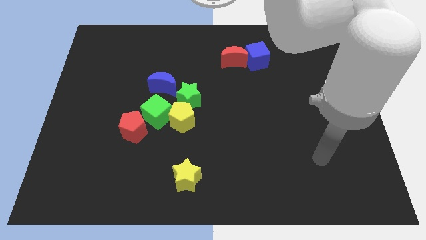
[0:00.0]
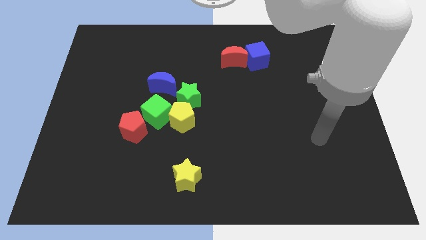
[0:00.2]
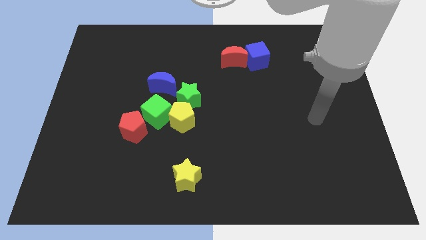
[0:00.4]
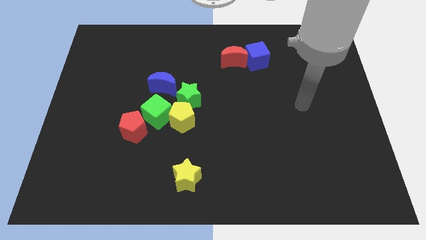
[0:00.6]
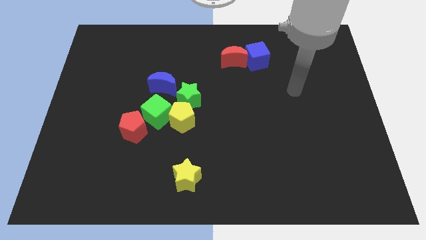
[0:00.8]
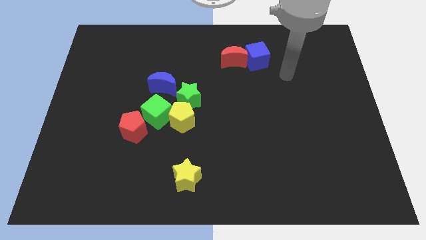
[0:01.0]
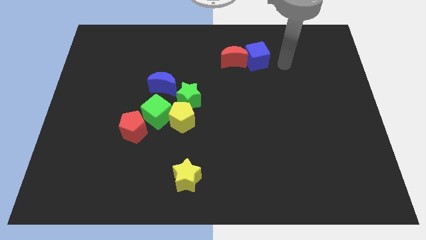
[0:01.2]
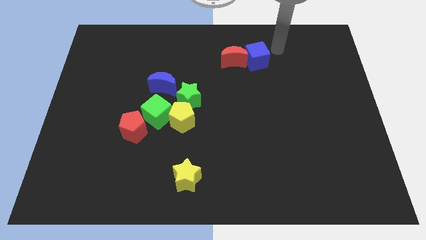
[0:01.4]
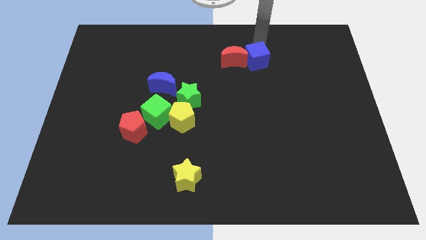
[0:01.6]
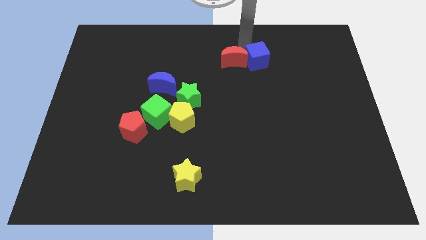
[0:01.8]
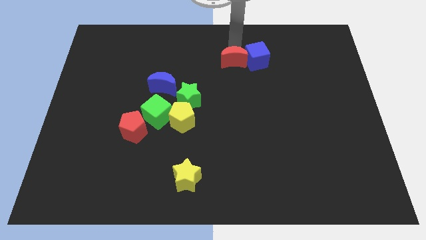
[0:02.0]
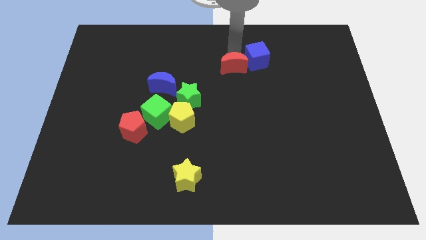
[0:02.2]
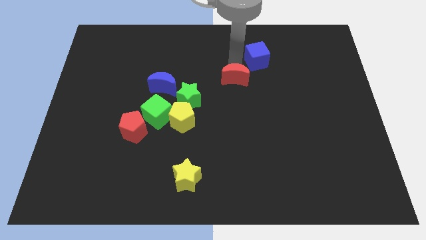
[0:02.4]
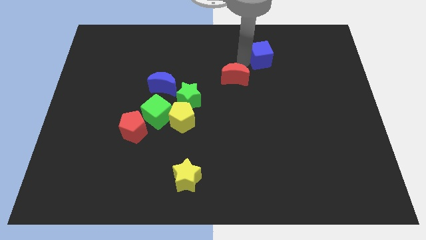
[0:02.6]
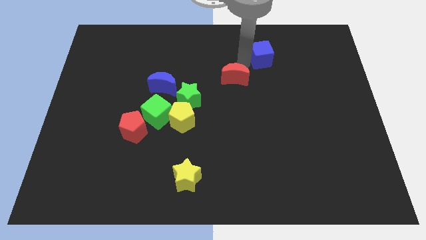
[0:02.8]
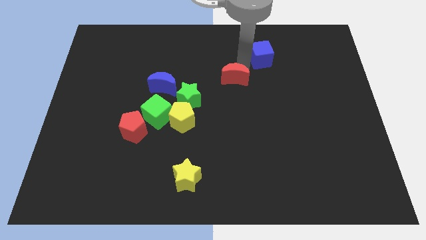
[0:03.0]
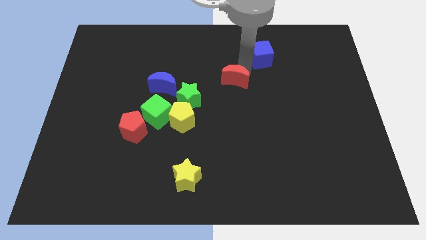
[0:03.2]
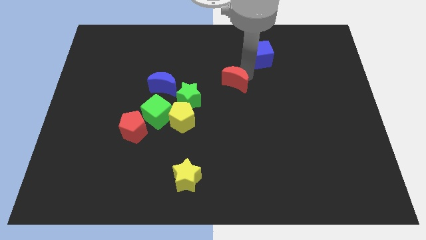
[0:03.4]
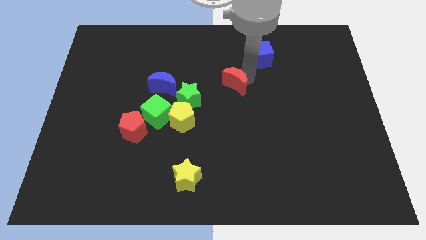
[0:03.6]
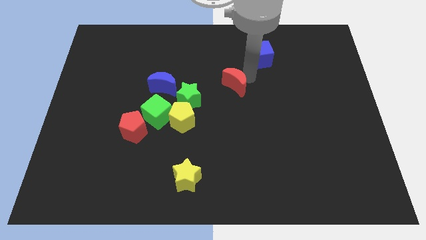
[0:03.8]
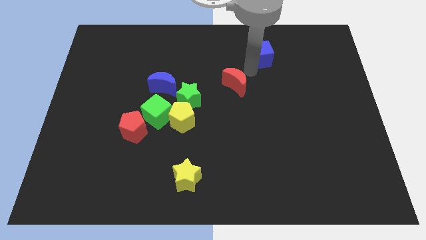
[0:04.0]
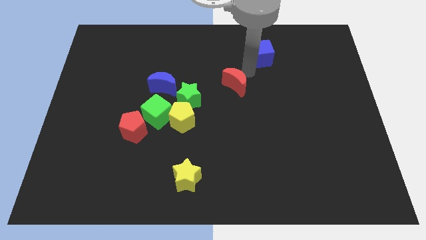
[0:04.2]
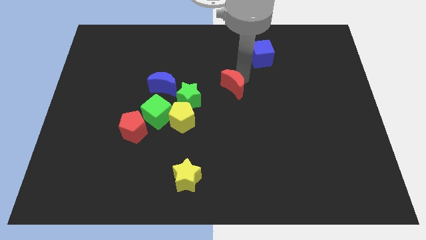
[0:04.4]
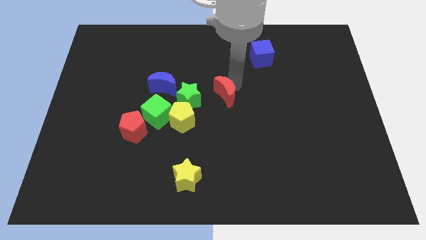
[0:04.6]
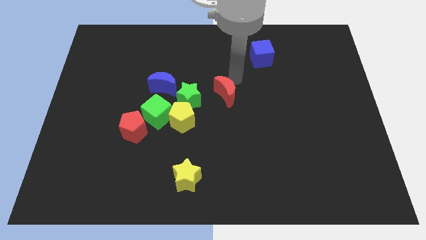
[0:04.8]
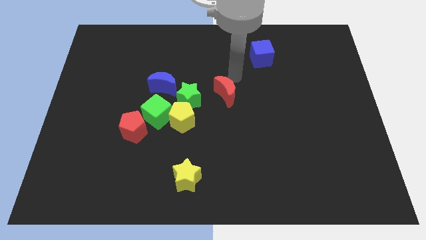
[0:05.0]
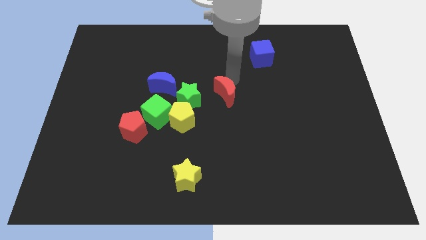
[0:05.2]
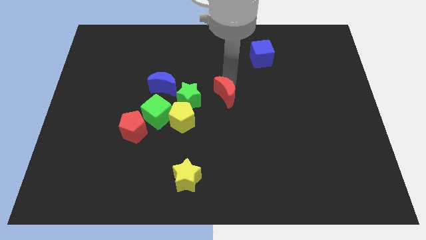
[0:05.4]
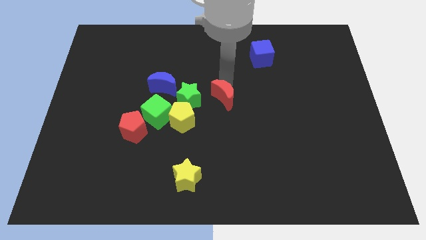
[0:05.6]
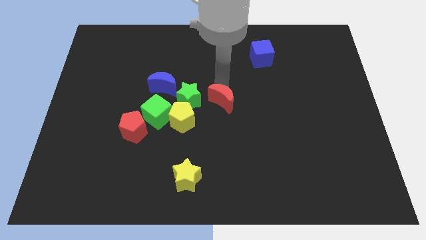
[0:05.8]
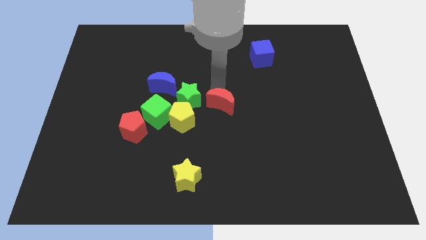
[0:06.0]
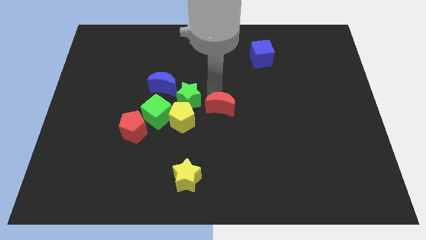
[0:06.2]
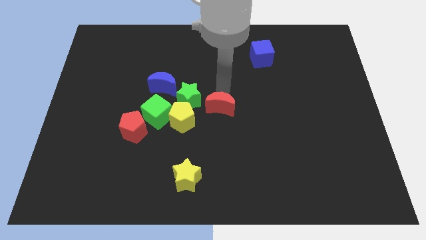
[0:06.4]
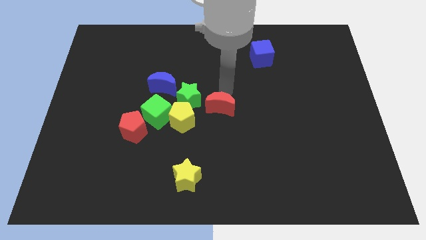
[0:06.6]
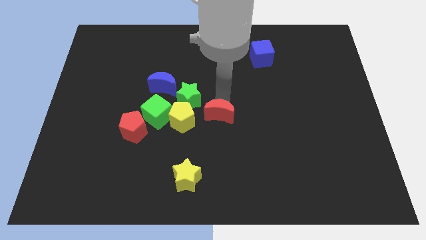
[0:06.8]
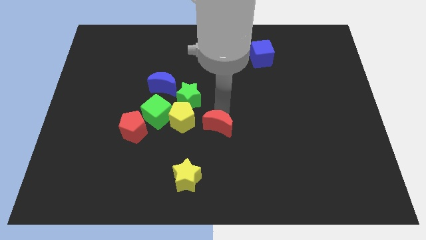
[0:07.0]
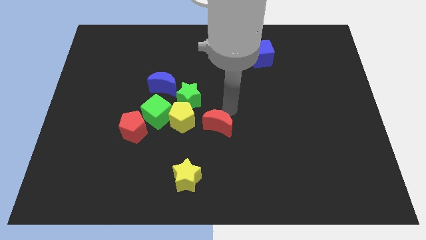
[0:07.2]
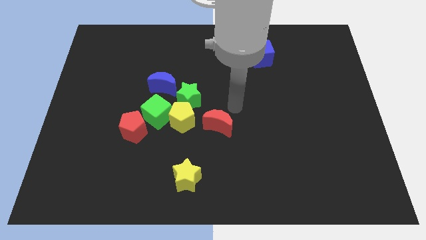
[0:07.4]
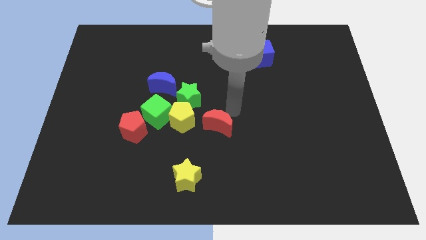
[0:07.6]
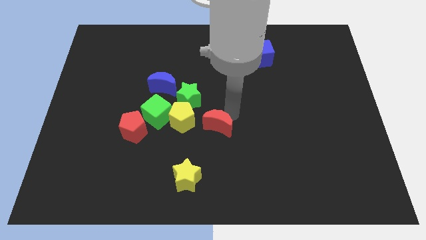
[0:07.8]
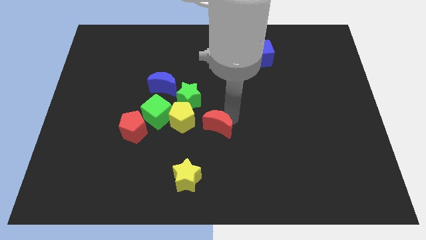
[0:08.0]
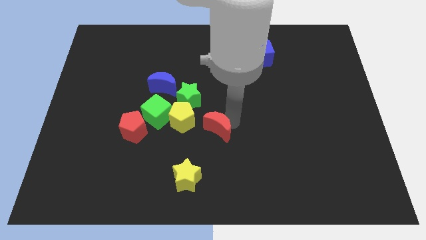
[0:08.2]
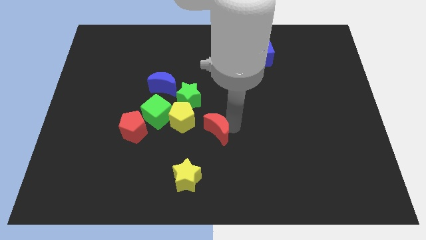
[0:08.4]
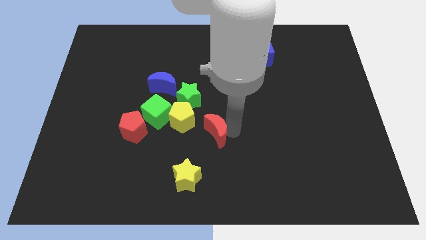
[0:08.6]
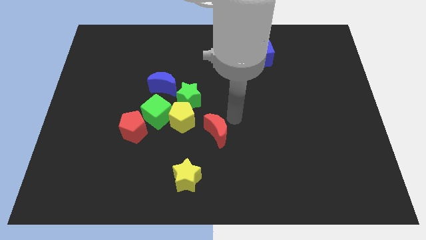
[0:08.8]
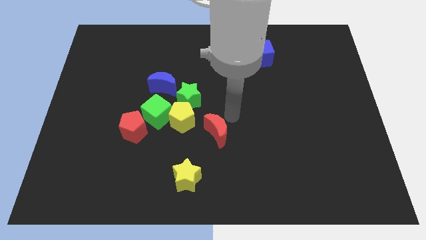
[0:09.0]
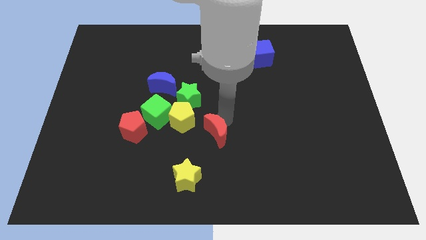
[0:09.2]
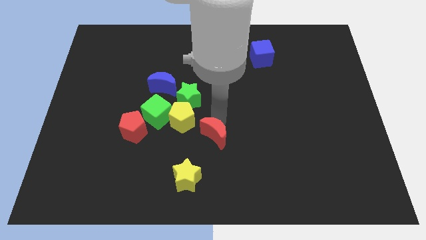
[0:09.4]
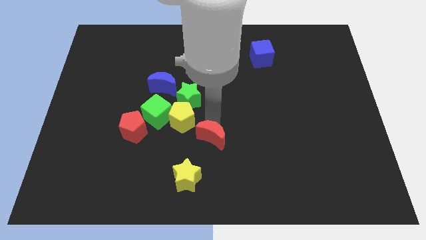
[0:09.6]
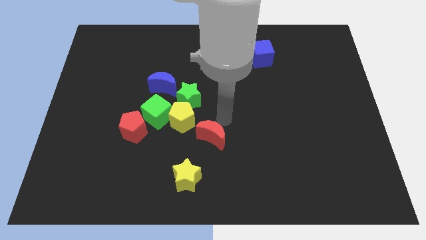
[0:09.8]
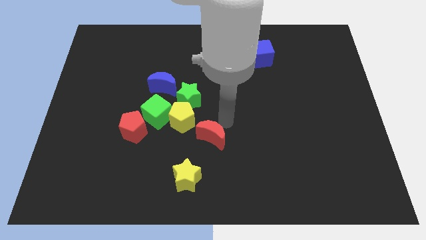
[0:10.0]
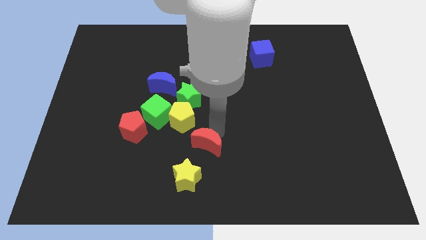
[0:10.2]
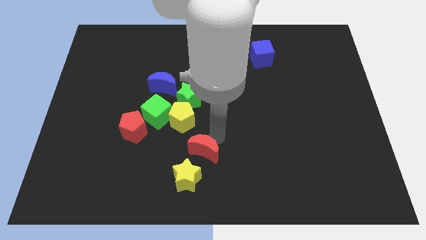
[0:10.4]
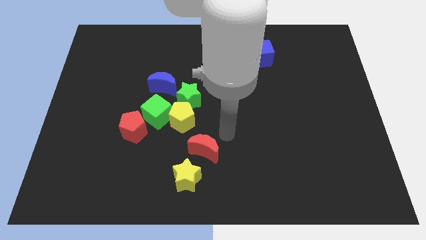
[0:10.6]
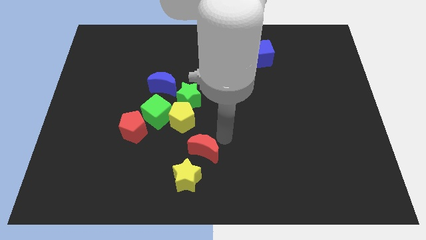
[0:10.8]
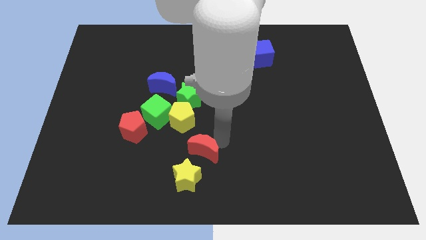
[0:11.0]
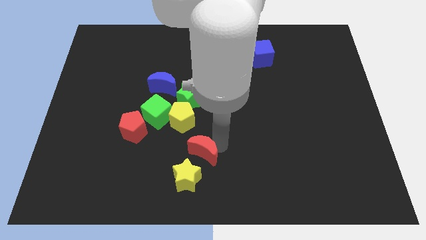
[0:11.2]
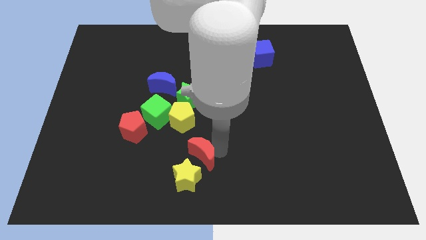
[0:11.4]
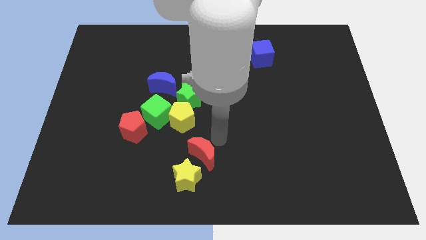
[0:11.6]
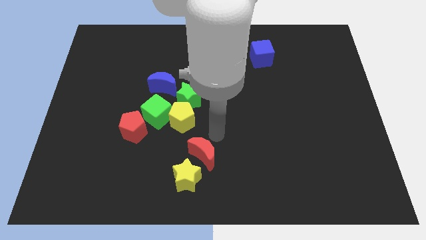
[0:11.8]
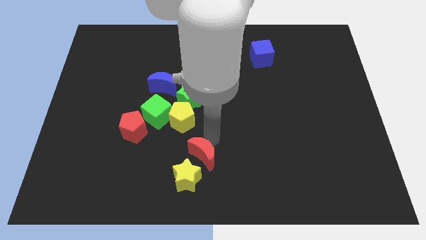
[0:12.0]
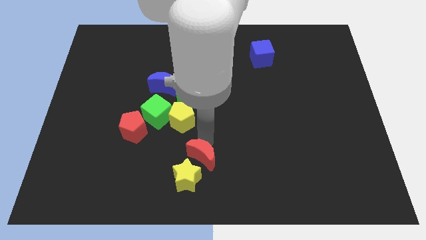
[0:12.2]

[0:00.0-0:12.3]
push the red moon to the yellow star
